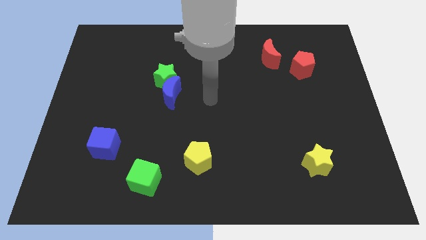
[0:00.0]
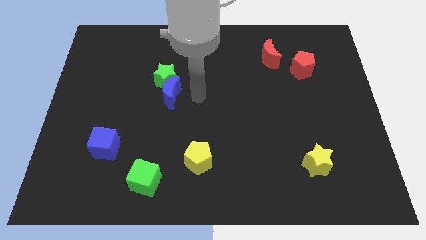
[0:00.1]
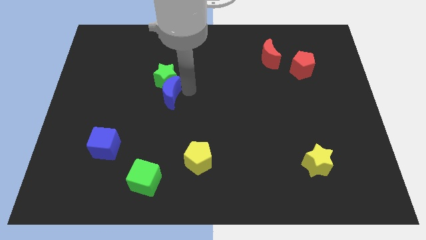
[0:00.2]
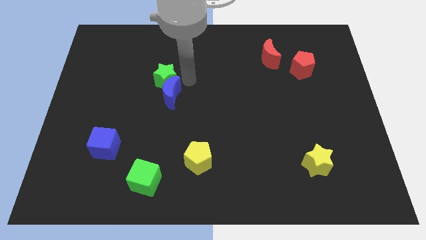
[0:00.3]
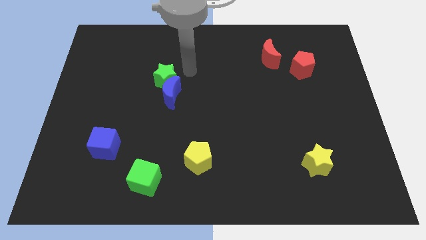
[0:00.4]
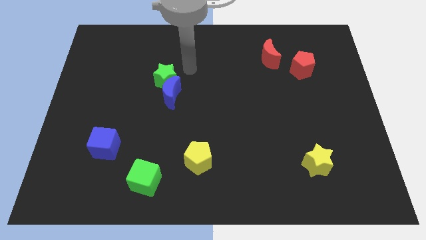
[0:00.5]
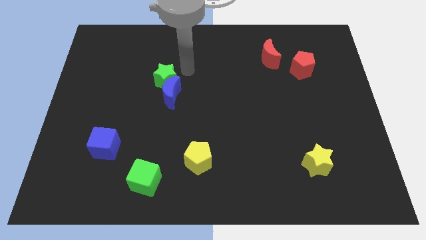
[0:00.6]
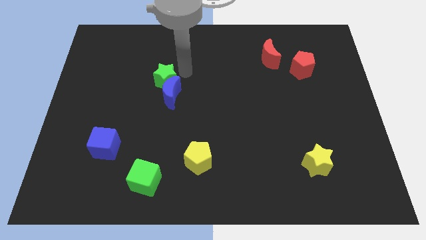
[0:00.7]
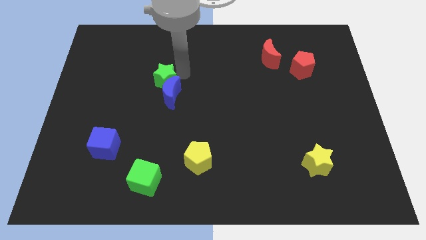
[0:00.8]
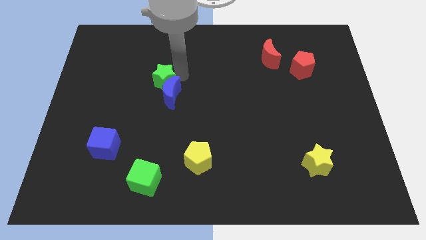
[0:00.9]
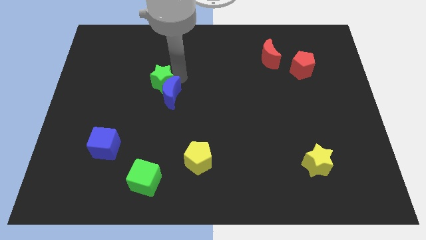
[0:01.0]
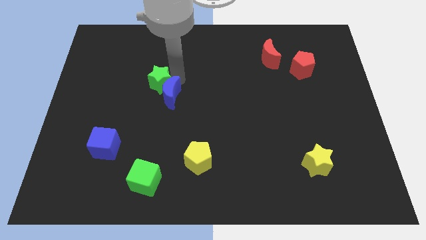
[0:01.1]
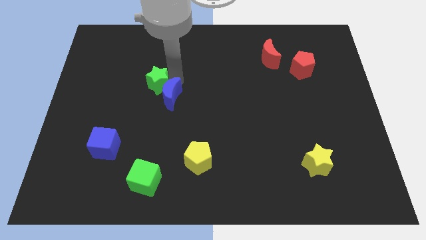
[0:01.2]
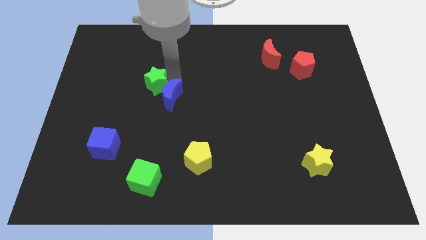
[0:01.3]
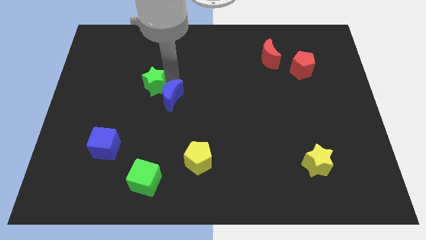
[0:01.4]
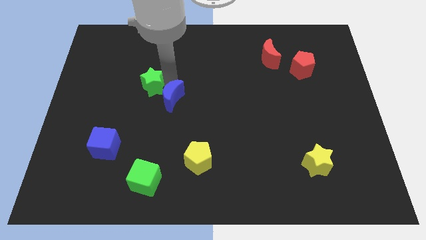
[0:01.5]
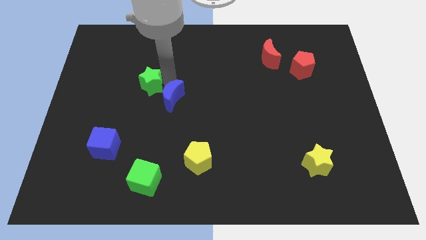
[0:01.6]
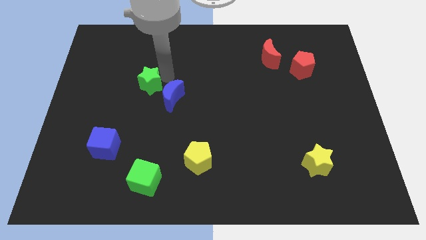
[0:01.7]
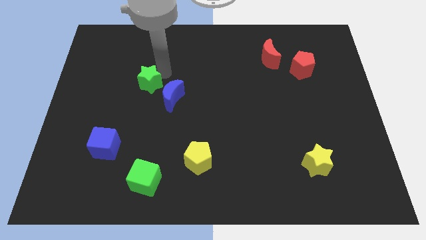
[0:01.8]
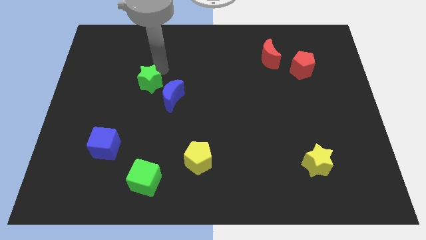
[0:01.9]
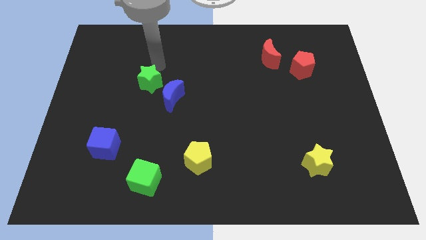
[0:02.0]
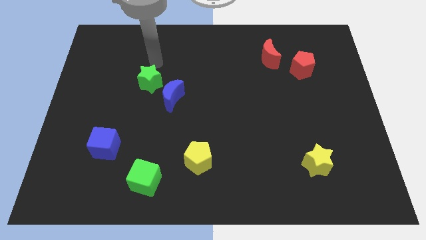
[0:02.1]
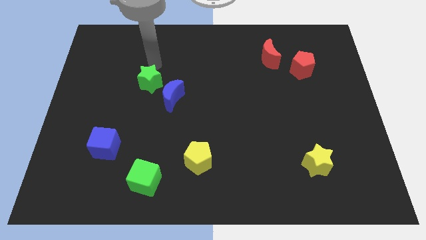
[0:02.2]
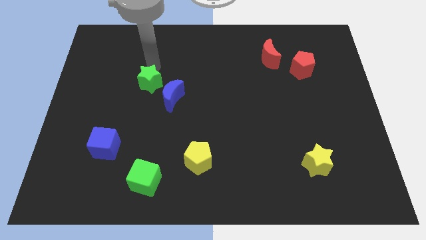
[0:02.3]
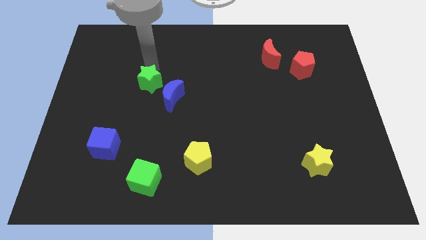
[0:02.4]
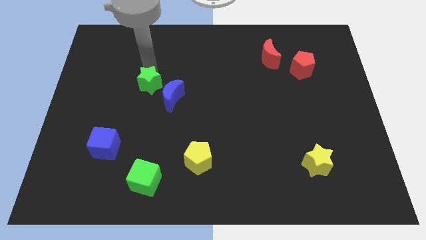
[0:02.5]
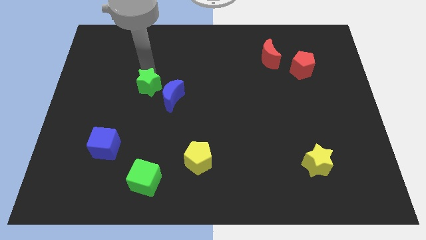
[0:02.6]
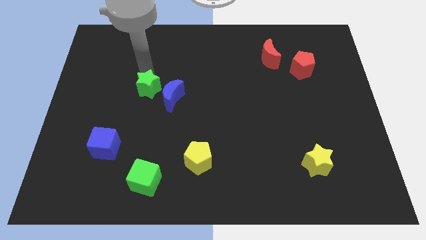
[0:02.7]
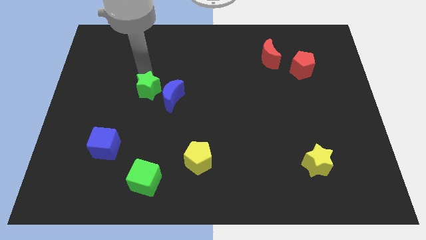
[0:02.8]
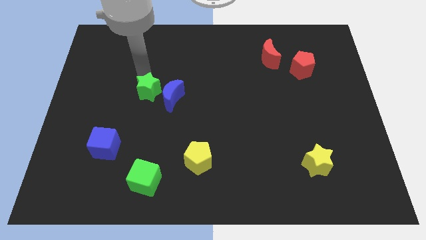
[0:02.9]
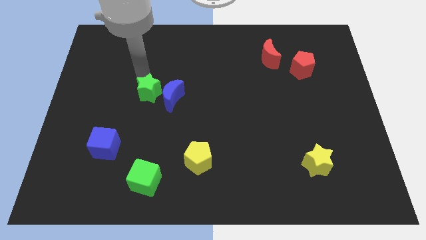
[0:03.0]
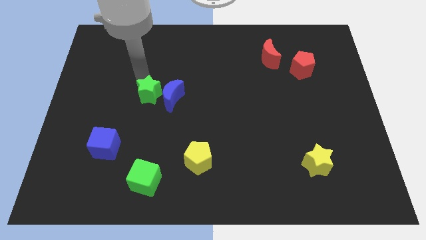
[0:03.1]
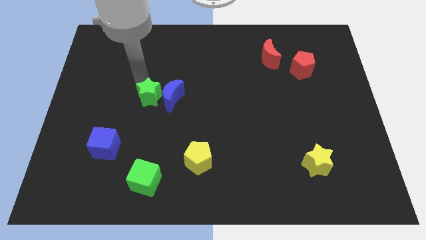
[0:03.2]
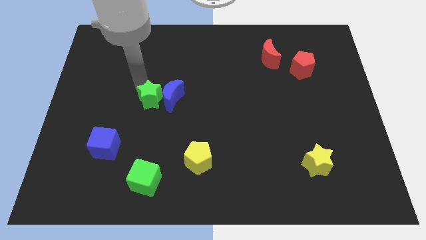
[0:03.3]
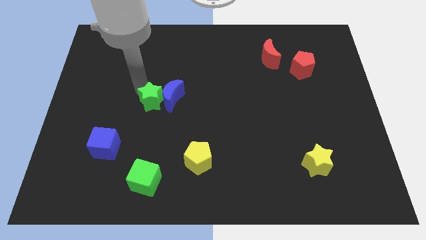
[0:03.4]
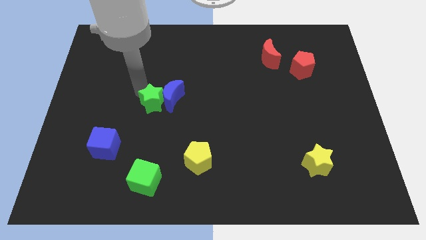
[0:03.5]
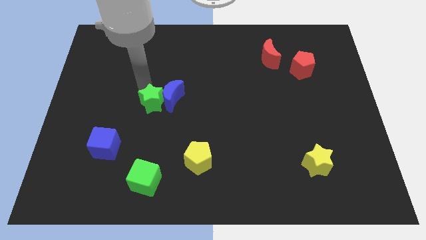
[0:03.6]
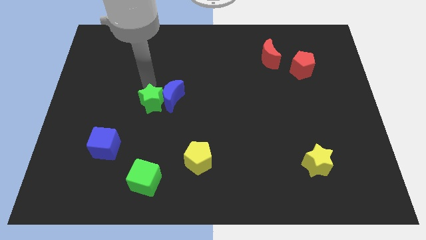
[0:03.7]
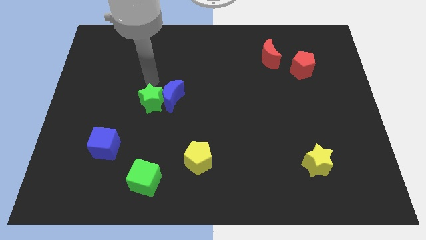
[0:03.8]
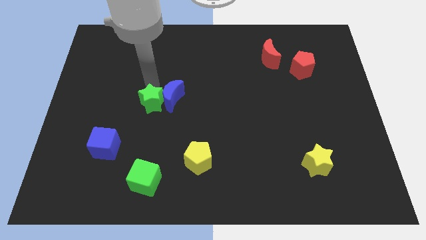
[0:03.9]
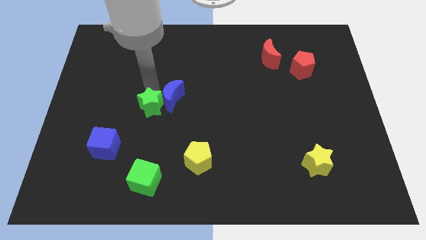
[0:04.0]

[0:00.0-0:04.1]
slide the green star a bit down

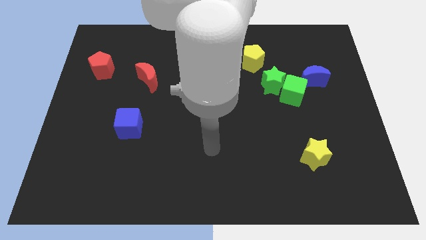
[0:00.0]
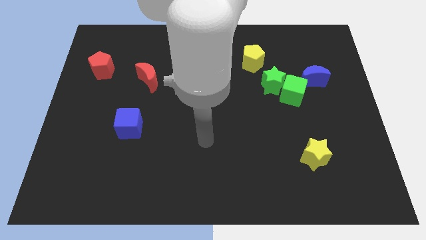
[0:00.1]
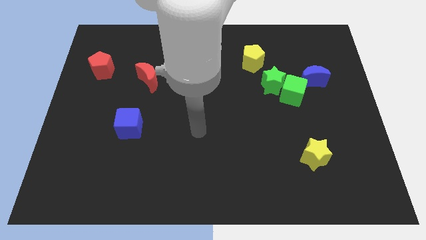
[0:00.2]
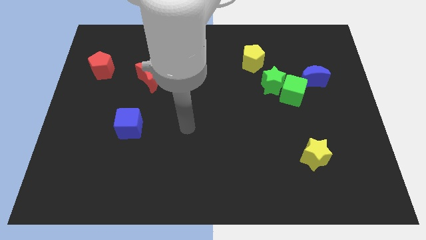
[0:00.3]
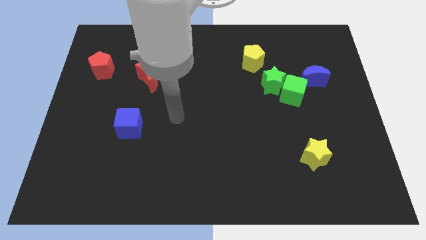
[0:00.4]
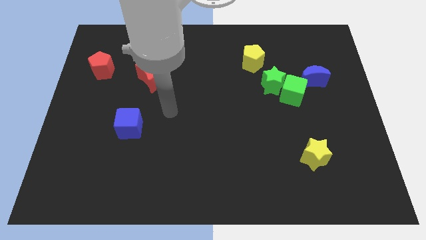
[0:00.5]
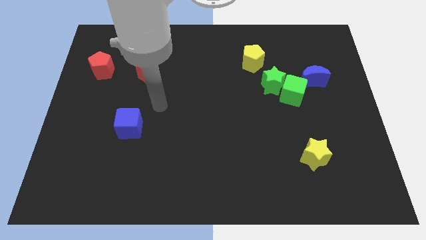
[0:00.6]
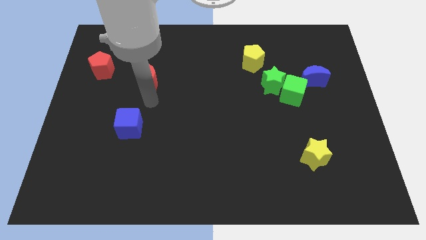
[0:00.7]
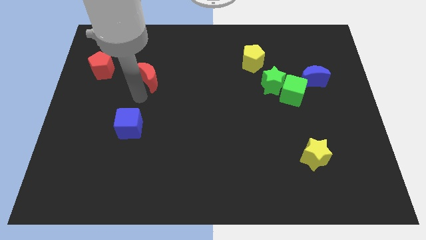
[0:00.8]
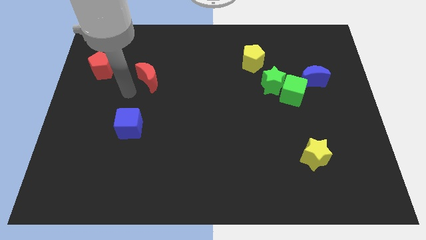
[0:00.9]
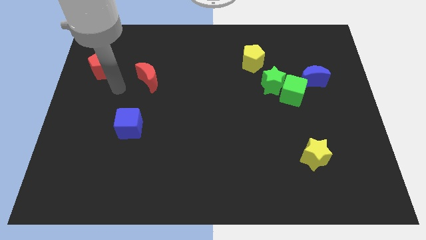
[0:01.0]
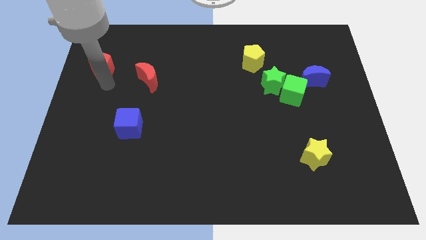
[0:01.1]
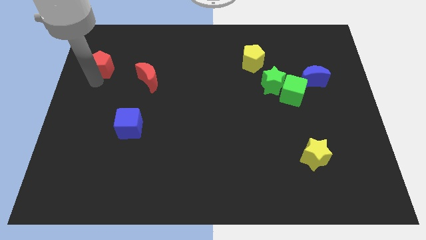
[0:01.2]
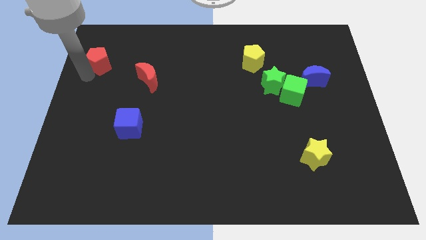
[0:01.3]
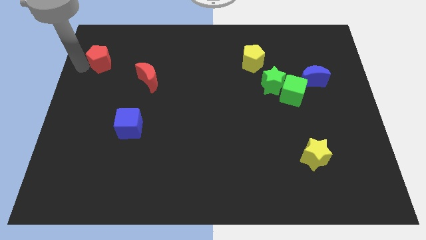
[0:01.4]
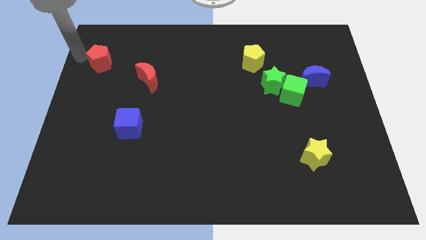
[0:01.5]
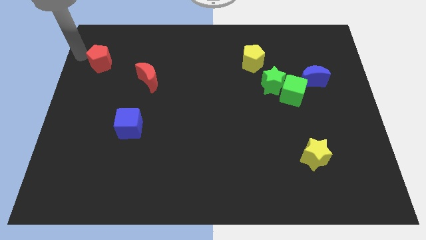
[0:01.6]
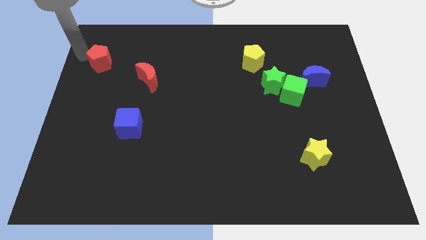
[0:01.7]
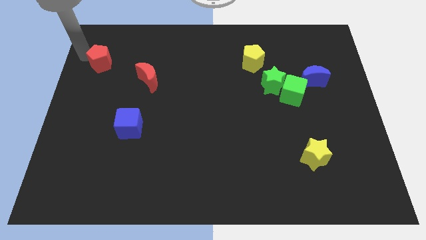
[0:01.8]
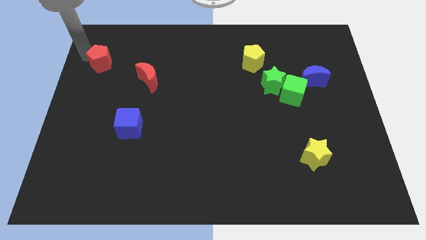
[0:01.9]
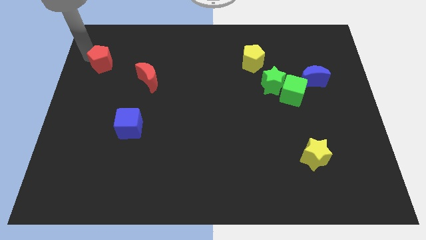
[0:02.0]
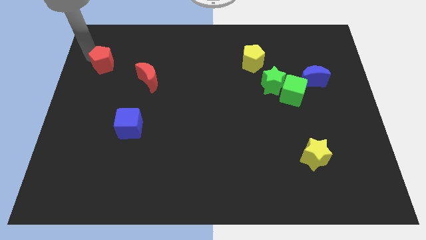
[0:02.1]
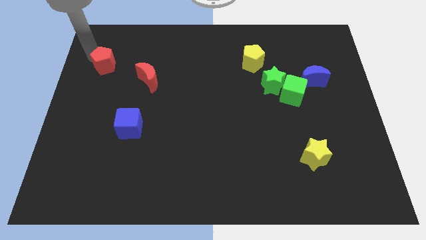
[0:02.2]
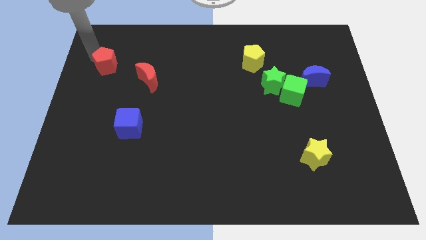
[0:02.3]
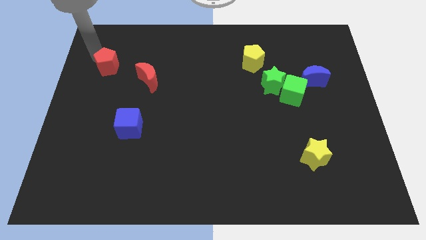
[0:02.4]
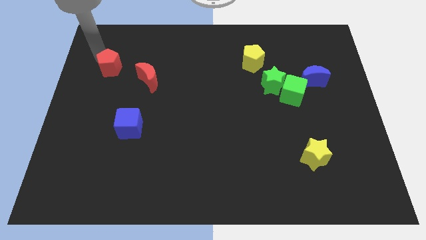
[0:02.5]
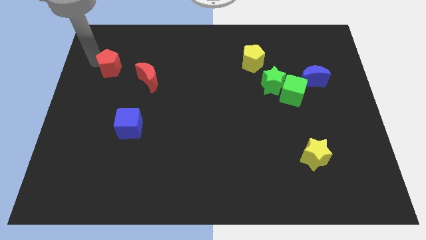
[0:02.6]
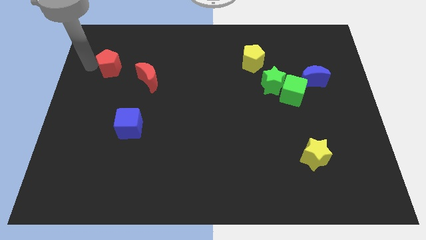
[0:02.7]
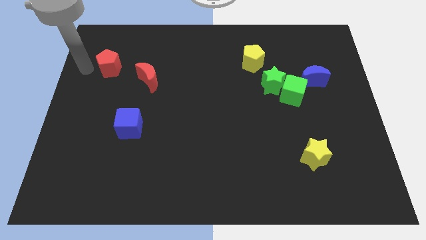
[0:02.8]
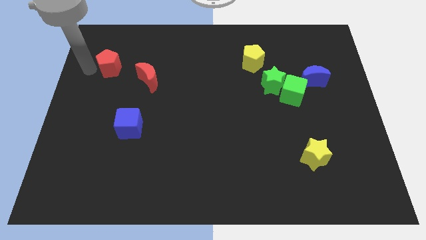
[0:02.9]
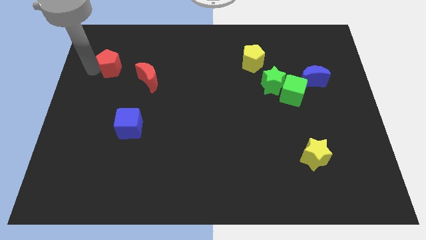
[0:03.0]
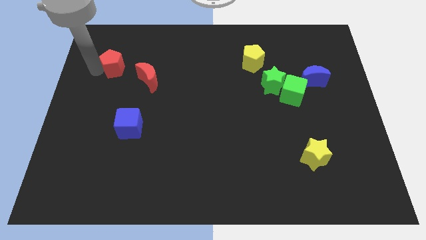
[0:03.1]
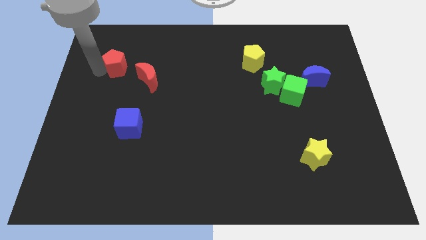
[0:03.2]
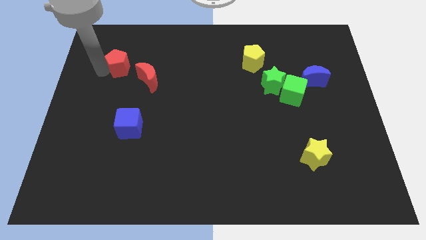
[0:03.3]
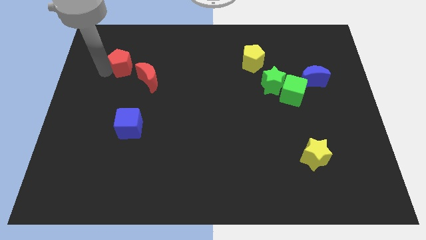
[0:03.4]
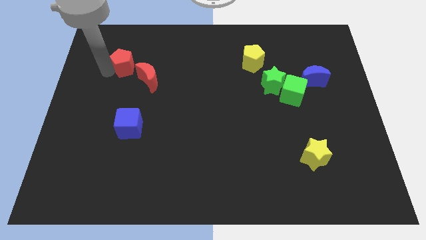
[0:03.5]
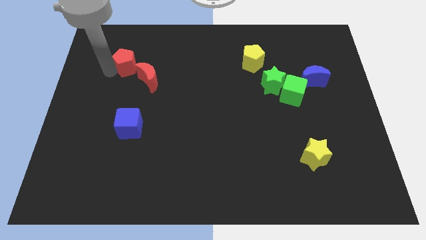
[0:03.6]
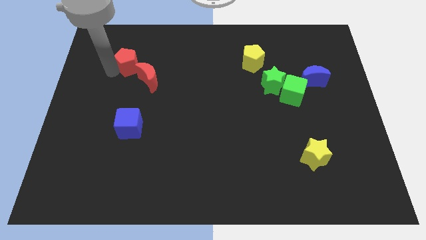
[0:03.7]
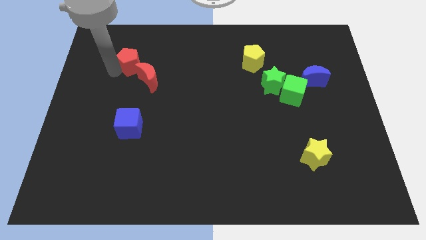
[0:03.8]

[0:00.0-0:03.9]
slide the red pentagon somewhat to the right
